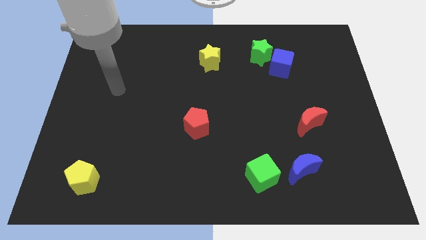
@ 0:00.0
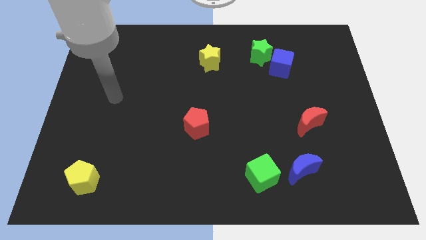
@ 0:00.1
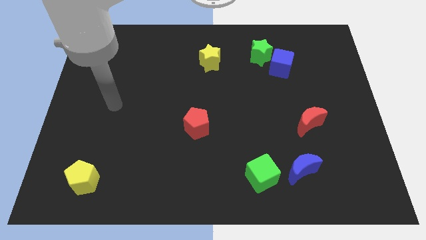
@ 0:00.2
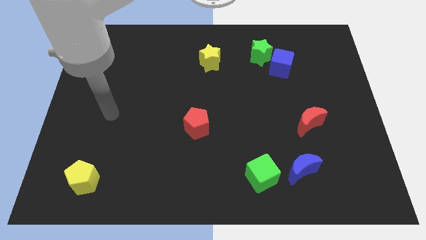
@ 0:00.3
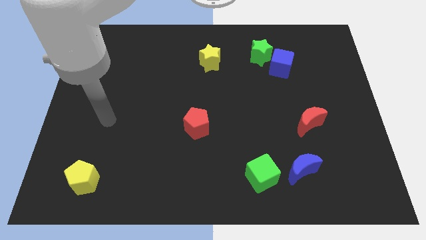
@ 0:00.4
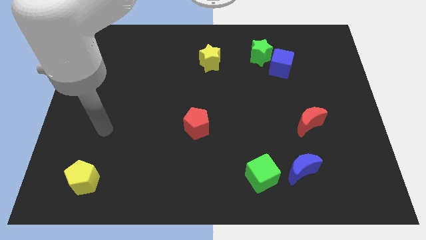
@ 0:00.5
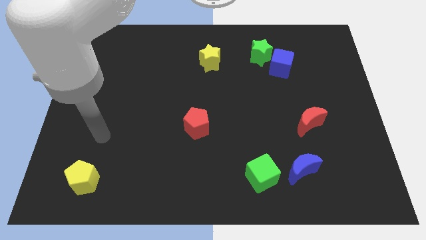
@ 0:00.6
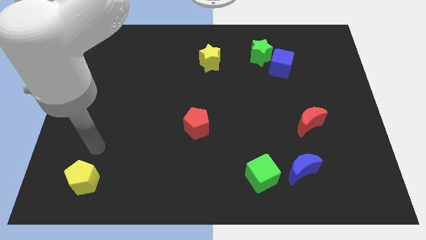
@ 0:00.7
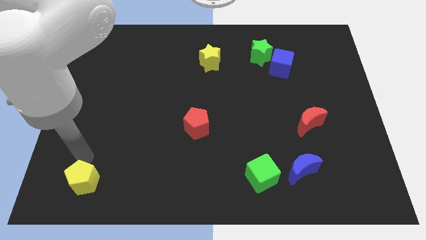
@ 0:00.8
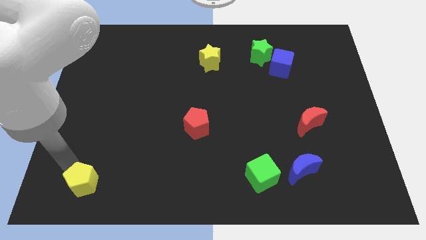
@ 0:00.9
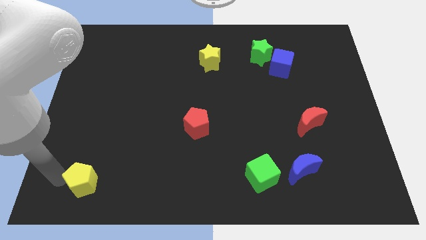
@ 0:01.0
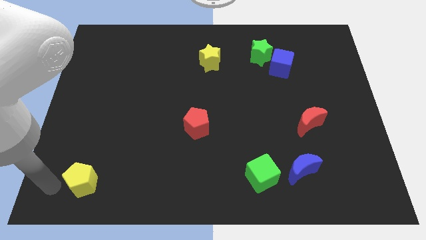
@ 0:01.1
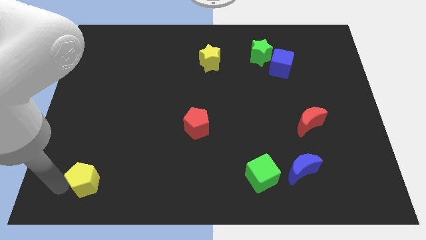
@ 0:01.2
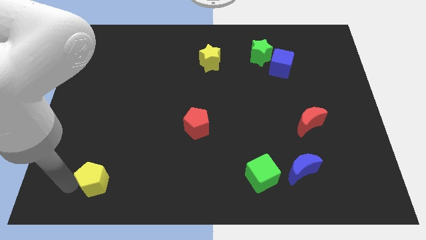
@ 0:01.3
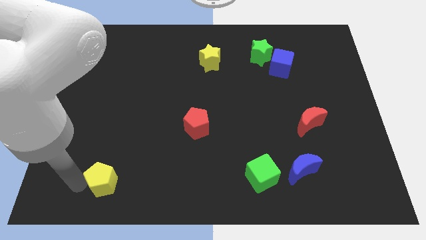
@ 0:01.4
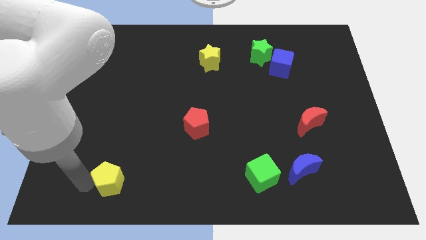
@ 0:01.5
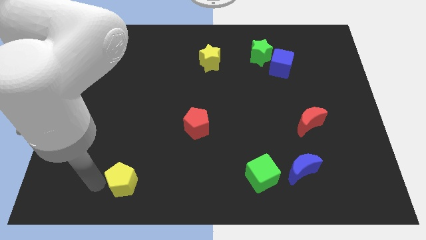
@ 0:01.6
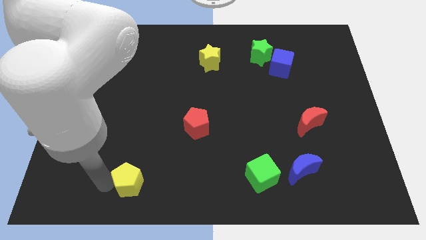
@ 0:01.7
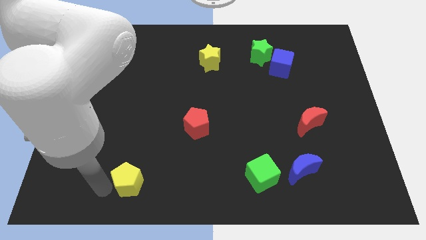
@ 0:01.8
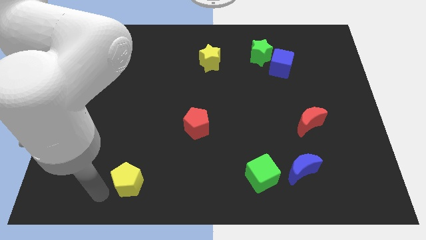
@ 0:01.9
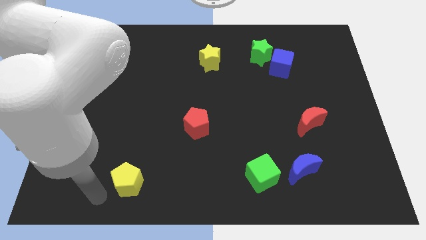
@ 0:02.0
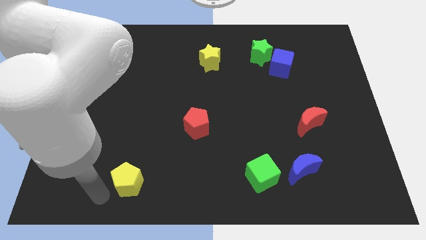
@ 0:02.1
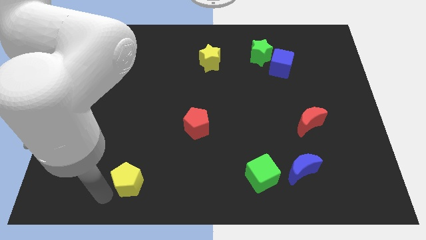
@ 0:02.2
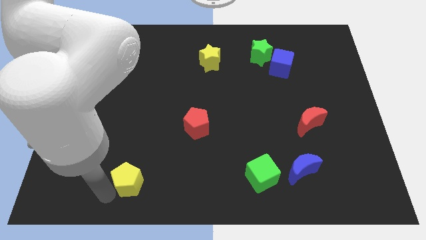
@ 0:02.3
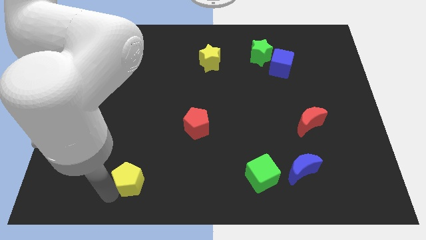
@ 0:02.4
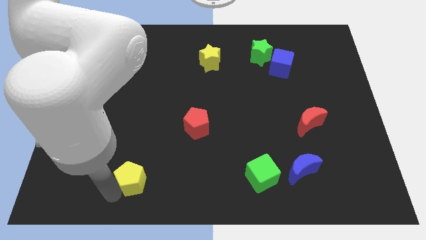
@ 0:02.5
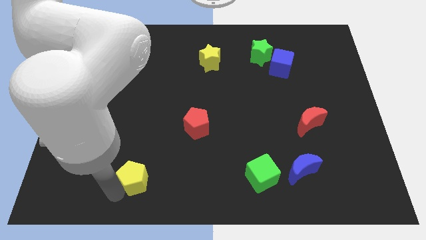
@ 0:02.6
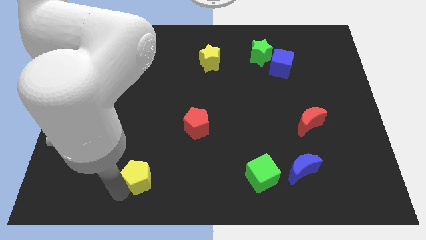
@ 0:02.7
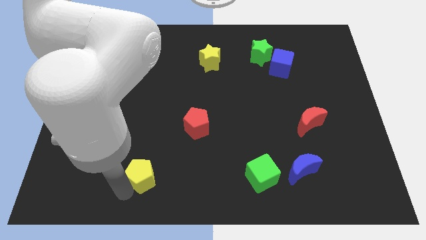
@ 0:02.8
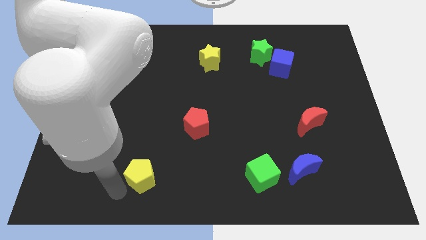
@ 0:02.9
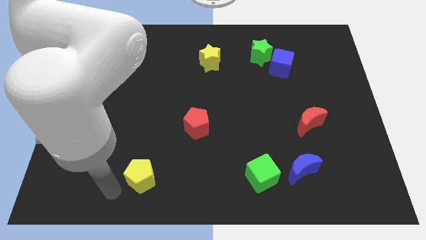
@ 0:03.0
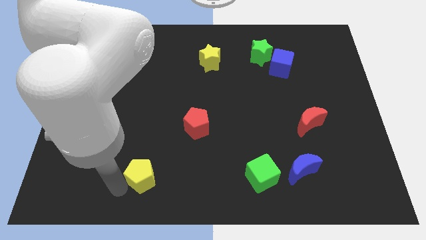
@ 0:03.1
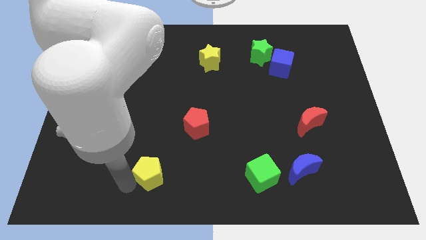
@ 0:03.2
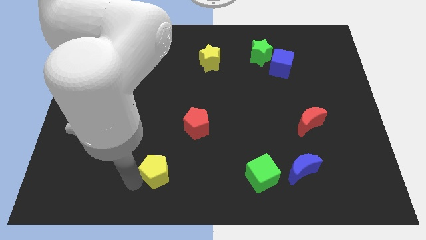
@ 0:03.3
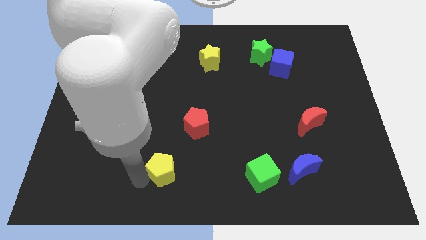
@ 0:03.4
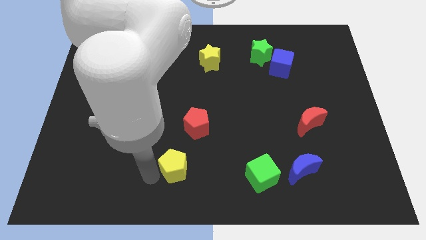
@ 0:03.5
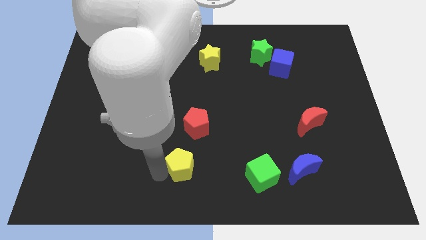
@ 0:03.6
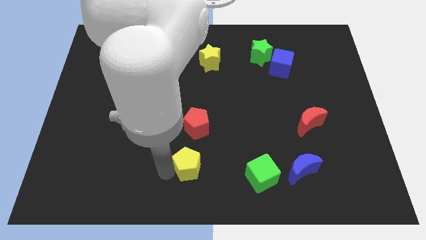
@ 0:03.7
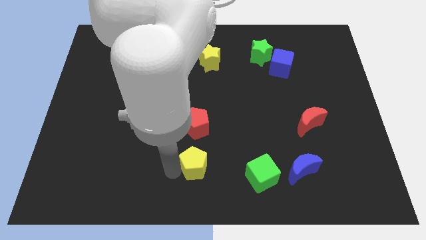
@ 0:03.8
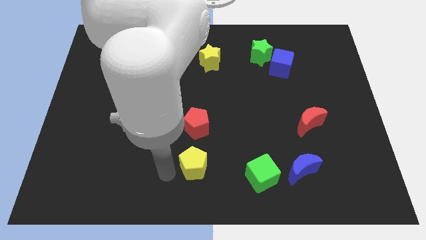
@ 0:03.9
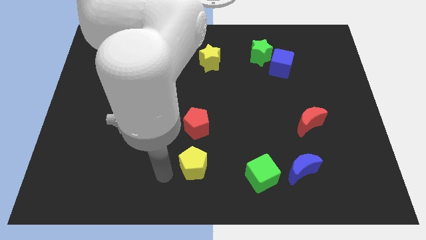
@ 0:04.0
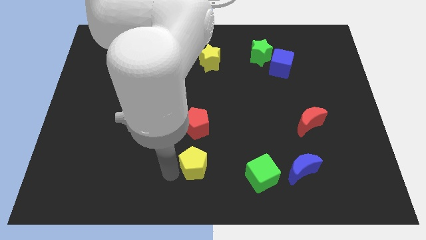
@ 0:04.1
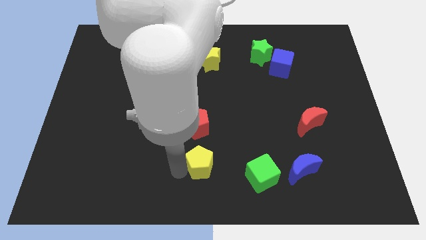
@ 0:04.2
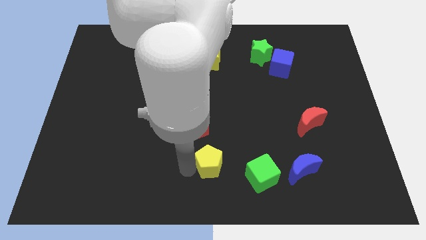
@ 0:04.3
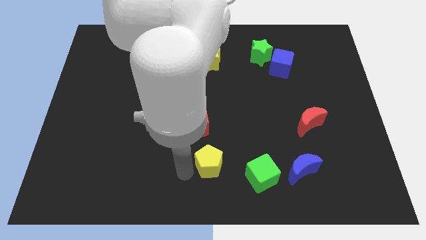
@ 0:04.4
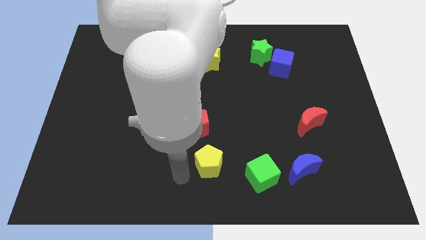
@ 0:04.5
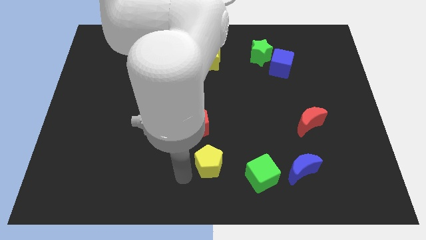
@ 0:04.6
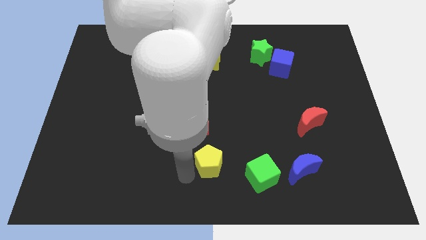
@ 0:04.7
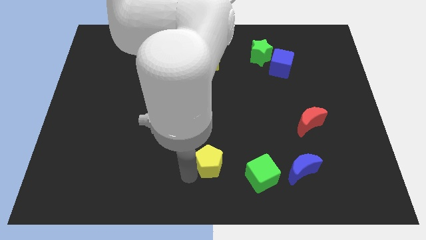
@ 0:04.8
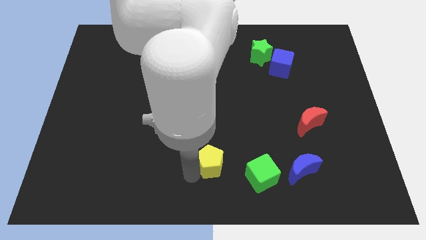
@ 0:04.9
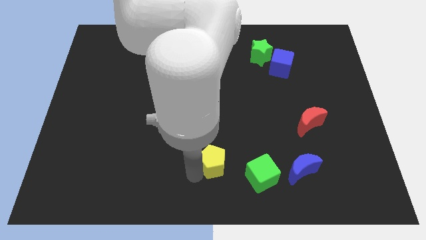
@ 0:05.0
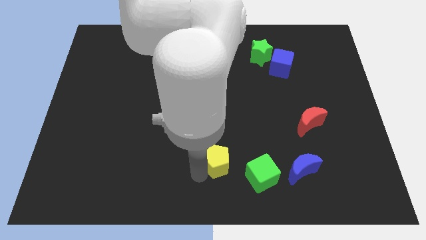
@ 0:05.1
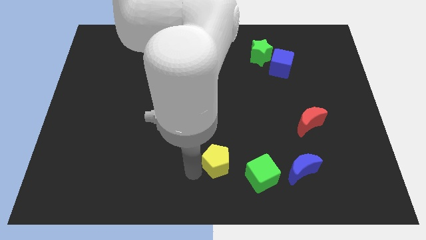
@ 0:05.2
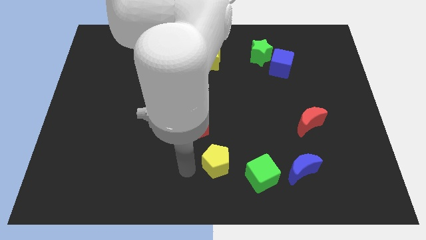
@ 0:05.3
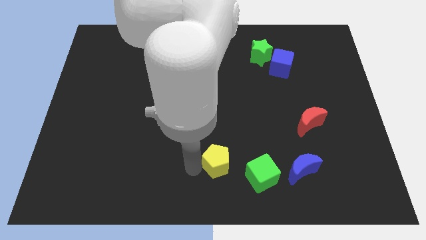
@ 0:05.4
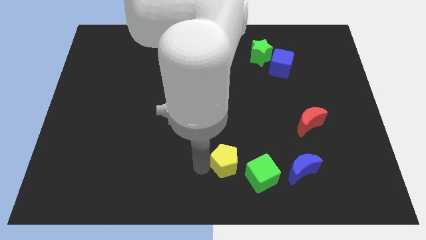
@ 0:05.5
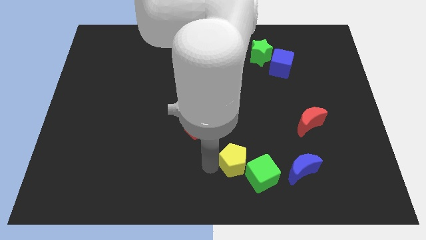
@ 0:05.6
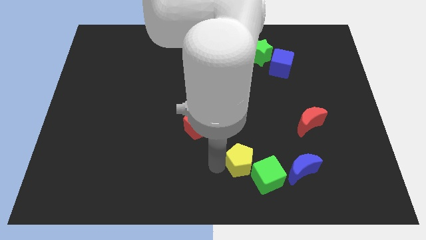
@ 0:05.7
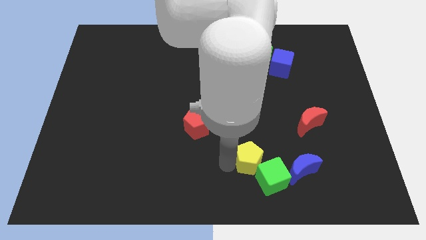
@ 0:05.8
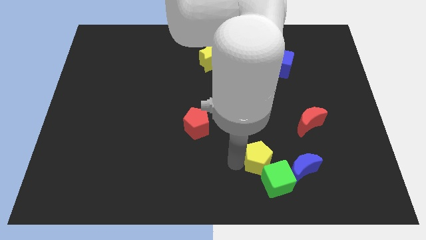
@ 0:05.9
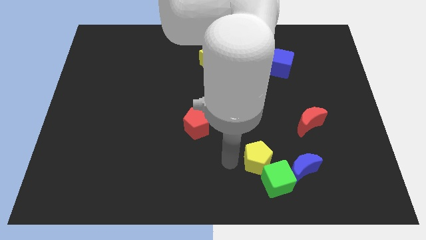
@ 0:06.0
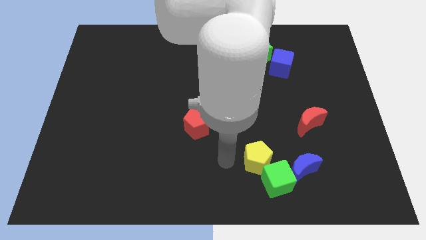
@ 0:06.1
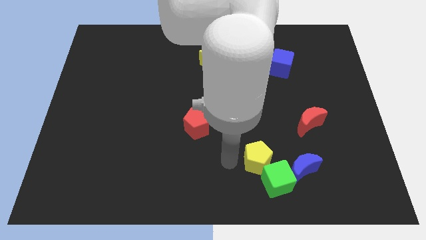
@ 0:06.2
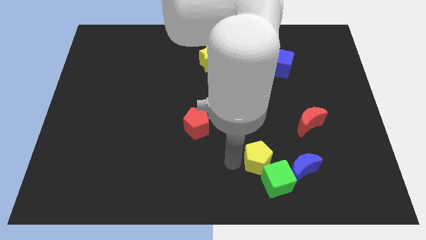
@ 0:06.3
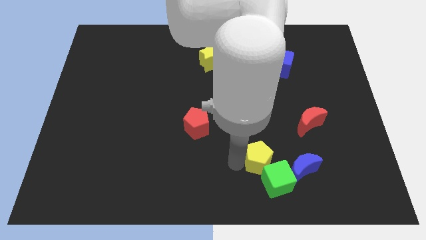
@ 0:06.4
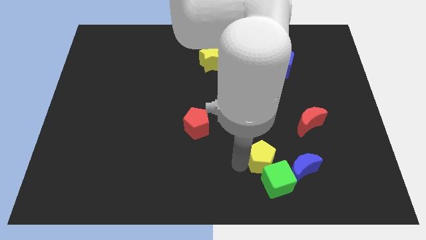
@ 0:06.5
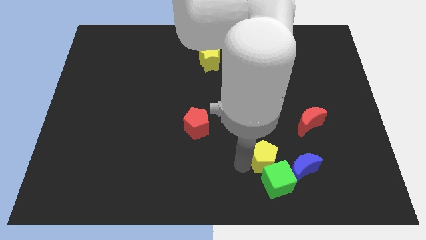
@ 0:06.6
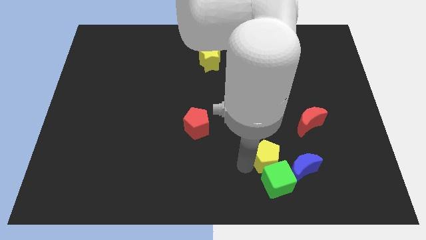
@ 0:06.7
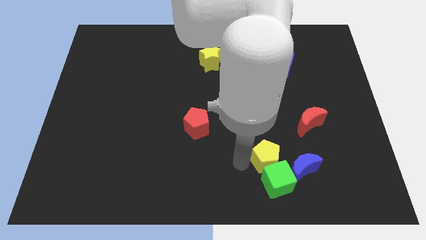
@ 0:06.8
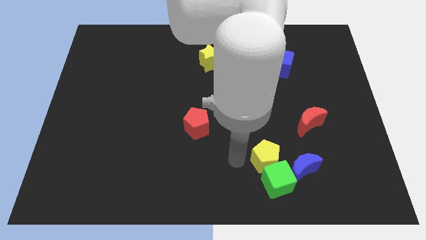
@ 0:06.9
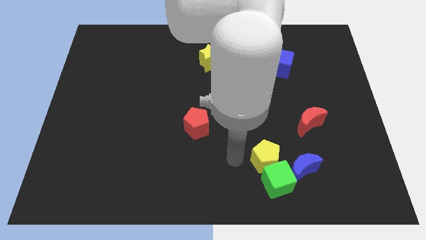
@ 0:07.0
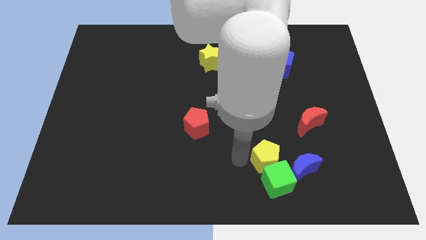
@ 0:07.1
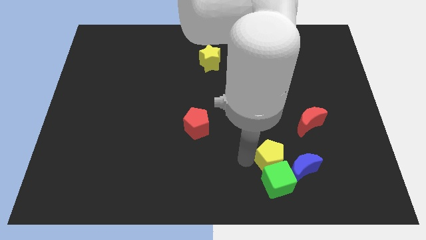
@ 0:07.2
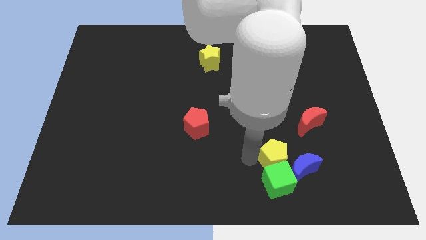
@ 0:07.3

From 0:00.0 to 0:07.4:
move the yellow pentagon to the blue moon
